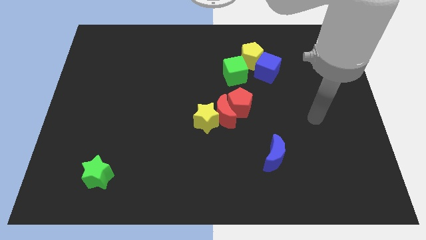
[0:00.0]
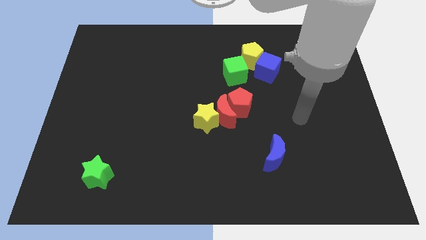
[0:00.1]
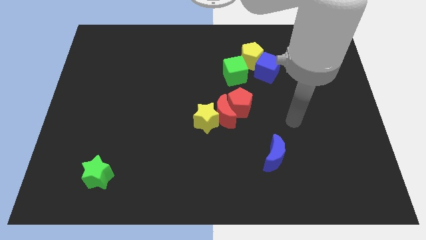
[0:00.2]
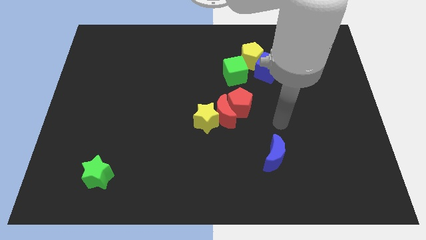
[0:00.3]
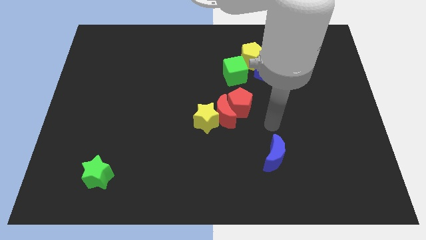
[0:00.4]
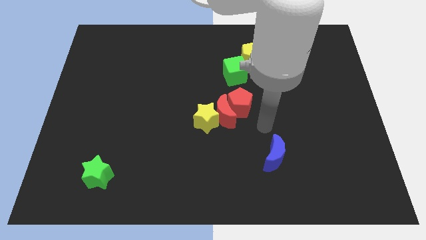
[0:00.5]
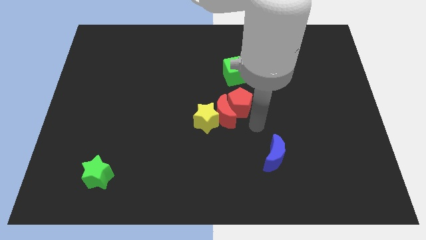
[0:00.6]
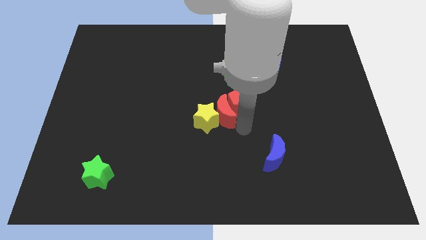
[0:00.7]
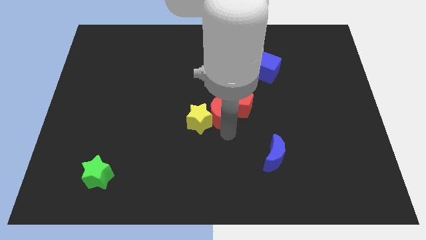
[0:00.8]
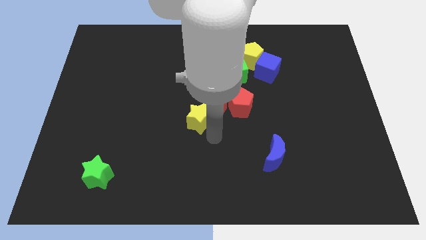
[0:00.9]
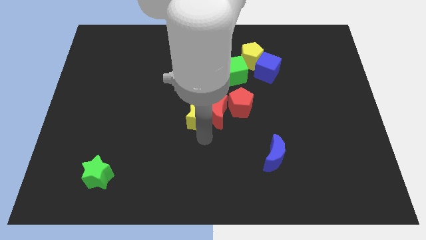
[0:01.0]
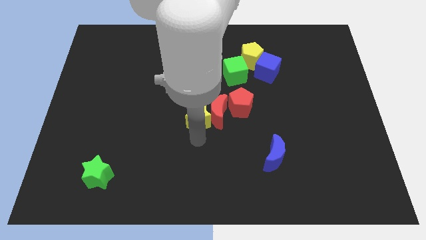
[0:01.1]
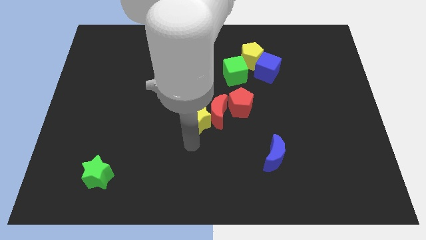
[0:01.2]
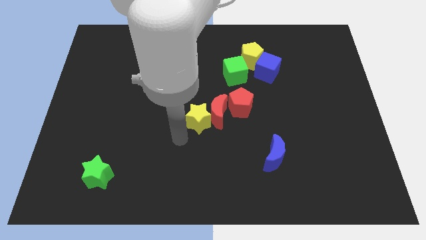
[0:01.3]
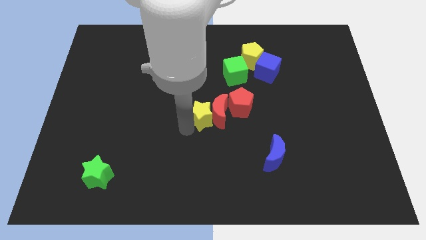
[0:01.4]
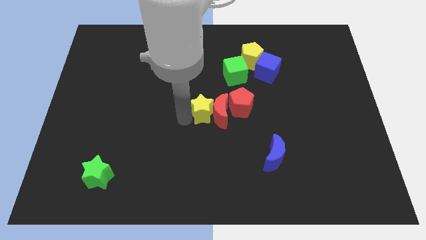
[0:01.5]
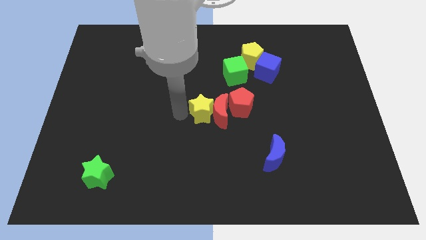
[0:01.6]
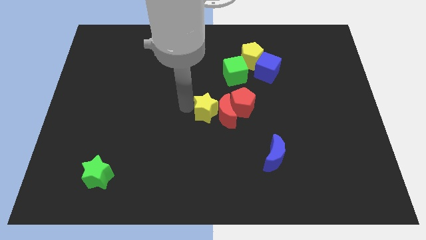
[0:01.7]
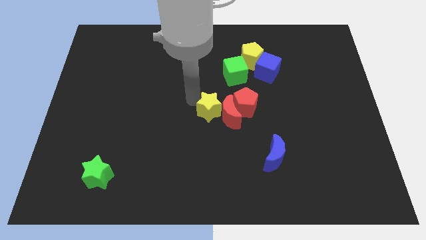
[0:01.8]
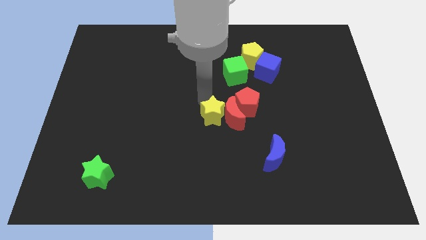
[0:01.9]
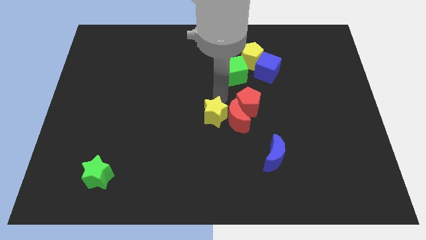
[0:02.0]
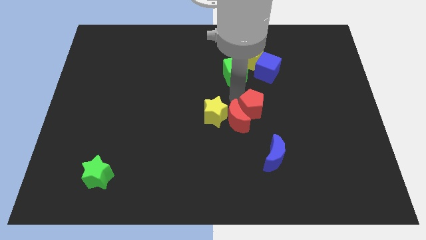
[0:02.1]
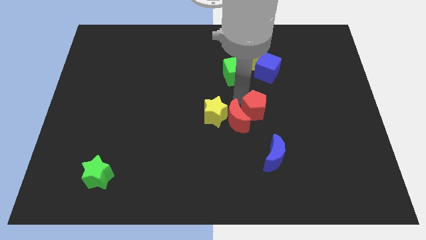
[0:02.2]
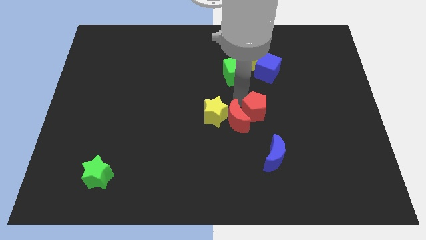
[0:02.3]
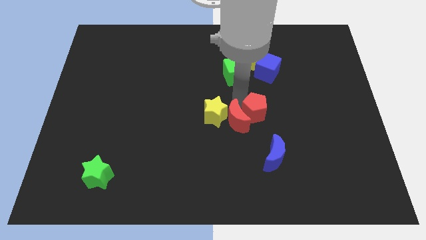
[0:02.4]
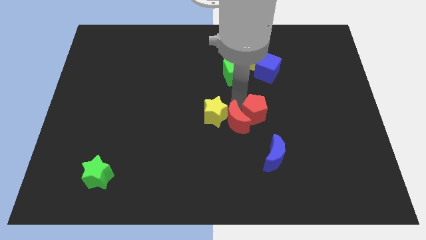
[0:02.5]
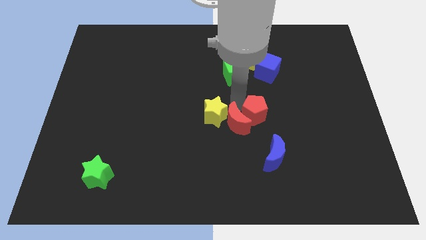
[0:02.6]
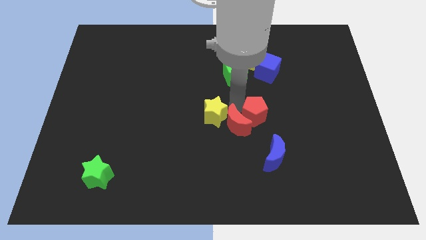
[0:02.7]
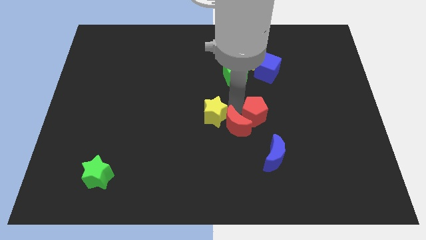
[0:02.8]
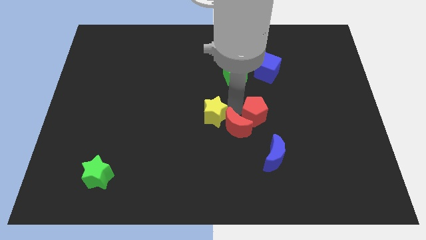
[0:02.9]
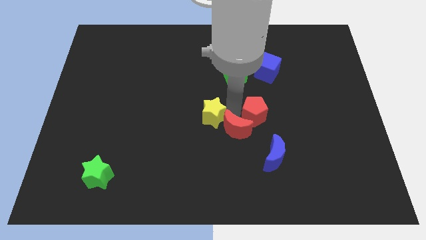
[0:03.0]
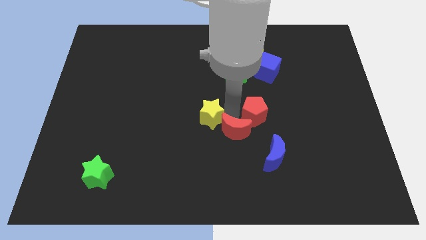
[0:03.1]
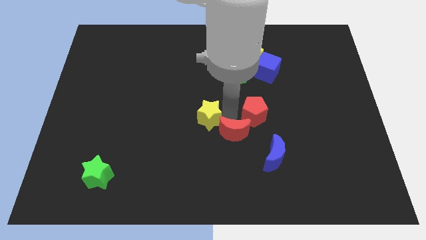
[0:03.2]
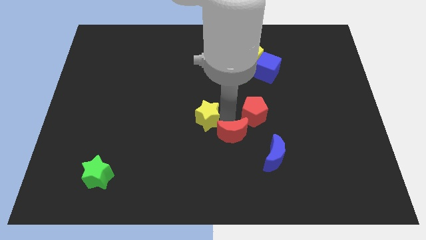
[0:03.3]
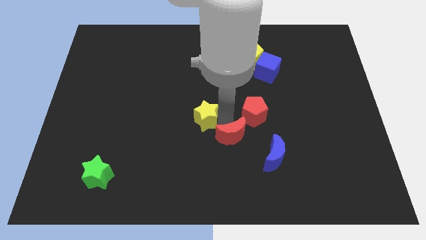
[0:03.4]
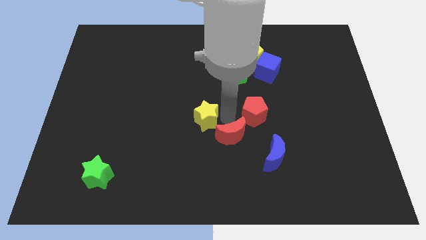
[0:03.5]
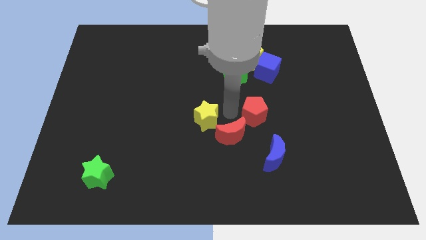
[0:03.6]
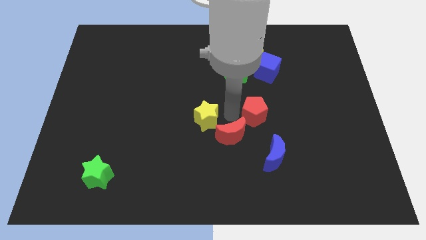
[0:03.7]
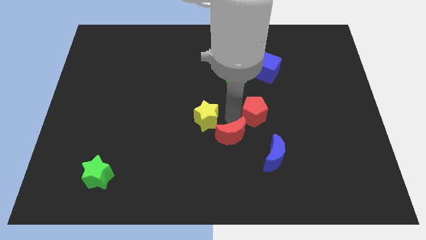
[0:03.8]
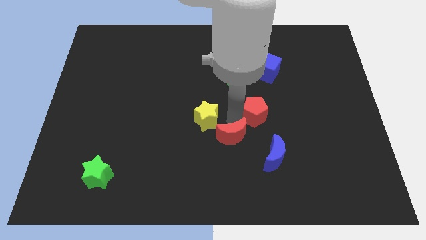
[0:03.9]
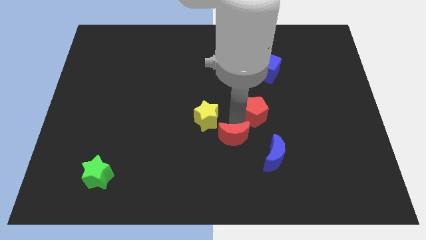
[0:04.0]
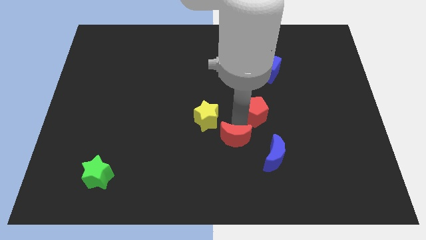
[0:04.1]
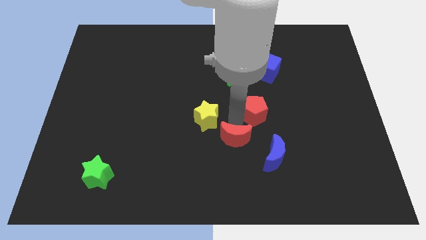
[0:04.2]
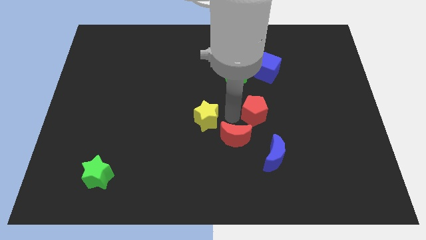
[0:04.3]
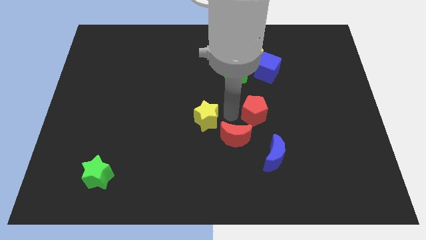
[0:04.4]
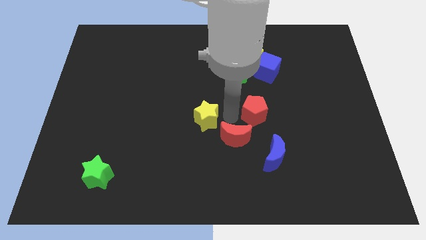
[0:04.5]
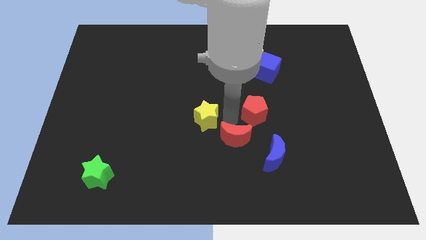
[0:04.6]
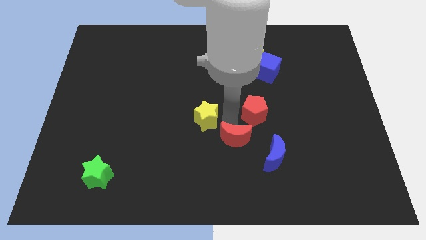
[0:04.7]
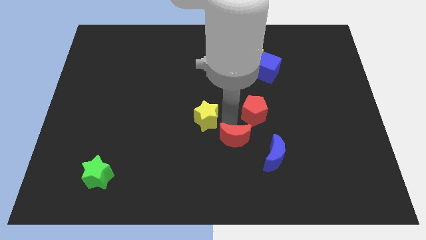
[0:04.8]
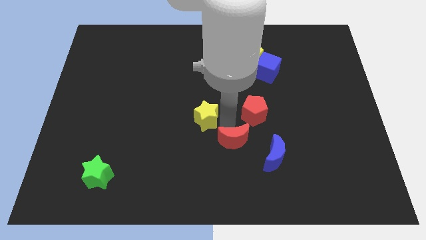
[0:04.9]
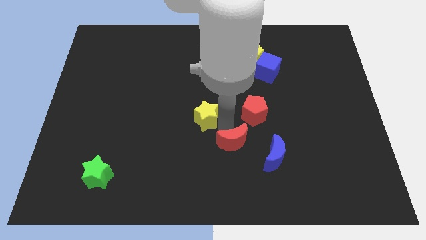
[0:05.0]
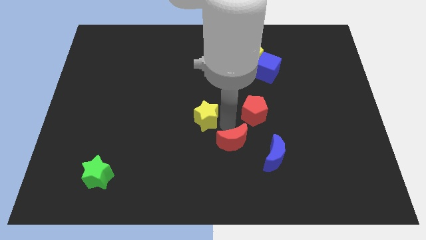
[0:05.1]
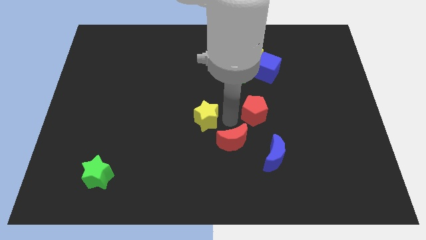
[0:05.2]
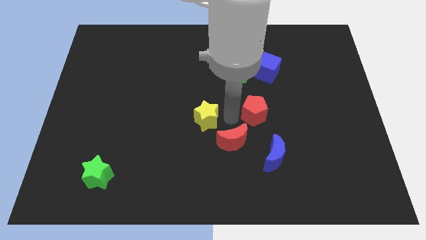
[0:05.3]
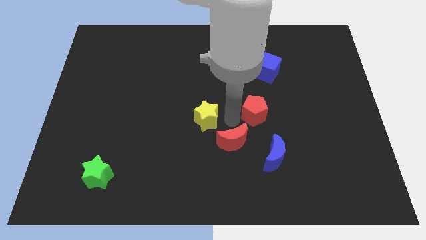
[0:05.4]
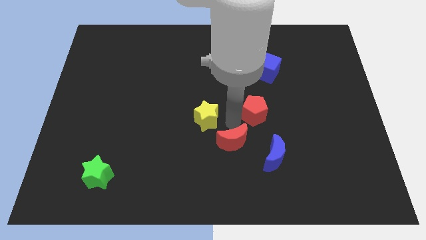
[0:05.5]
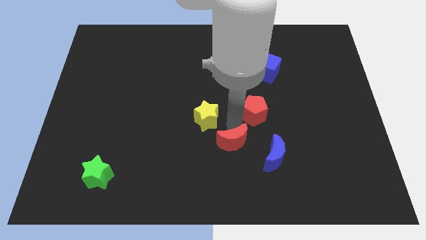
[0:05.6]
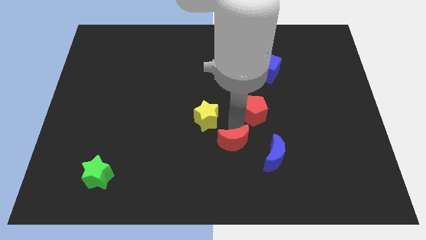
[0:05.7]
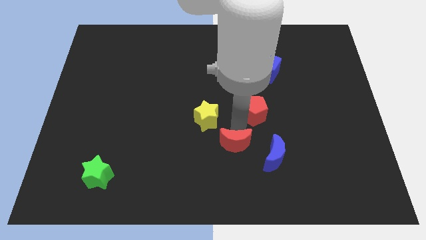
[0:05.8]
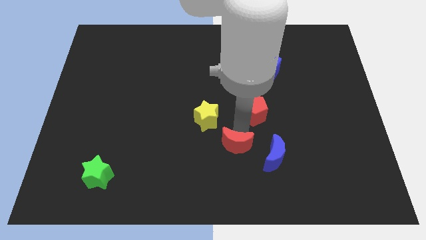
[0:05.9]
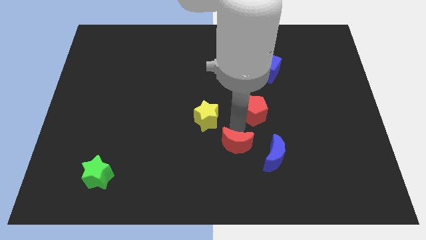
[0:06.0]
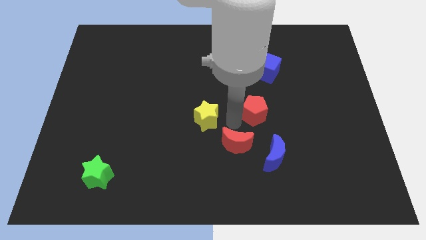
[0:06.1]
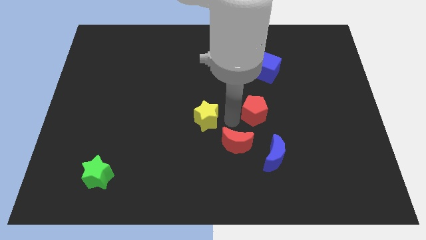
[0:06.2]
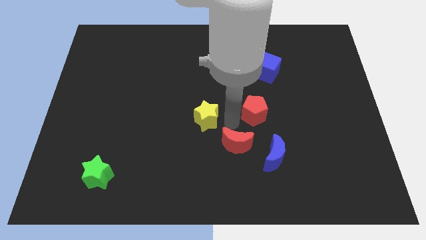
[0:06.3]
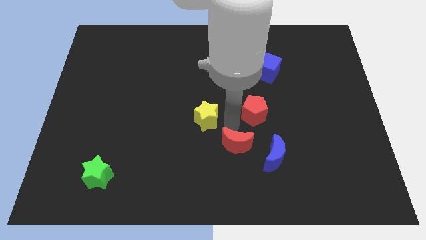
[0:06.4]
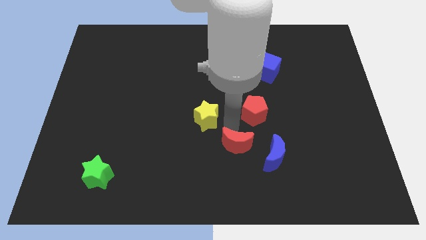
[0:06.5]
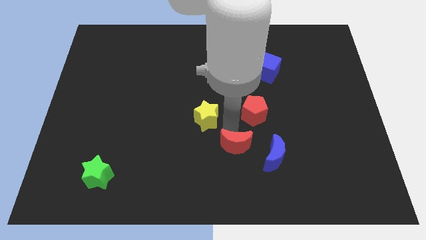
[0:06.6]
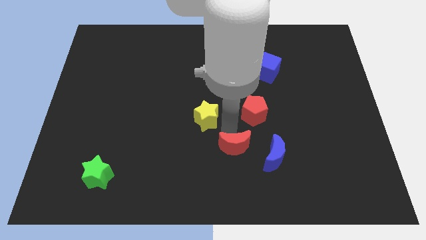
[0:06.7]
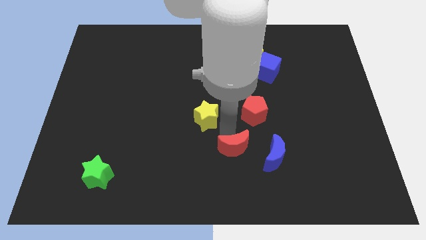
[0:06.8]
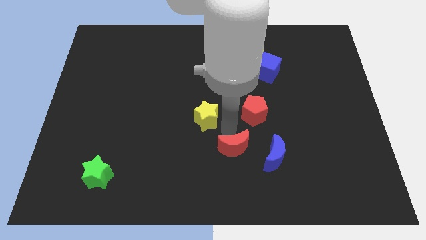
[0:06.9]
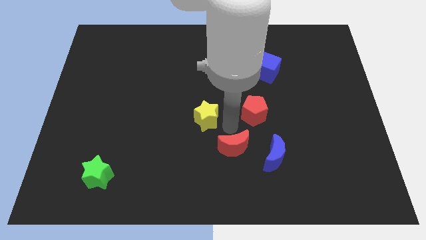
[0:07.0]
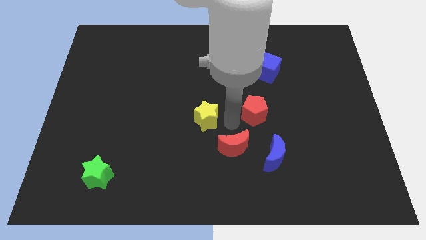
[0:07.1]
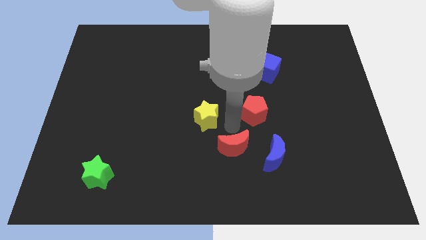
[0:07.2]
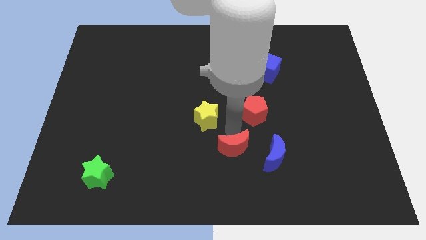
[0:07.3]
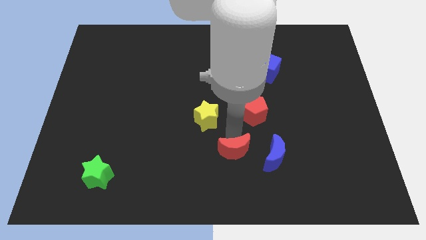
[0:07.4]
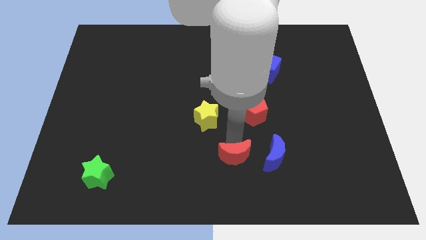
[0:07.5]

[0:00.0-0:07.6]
pull the red moon apart from the yellow star and red pentagon

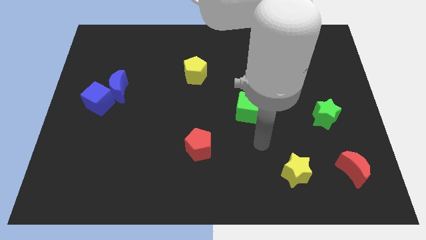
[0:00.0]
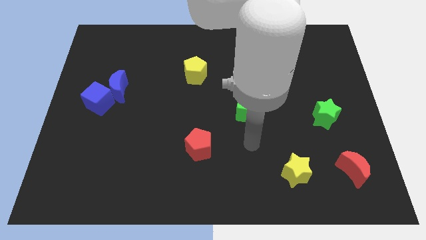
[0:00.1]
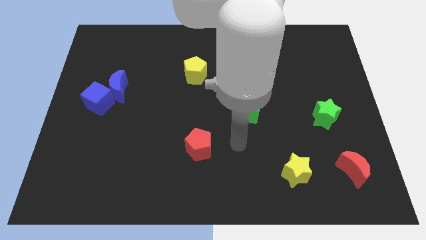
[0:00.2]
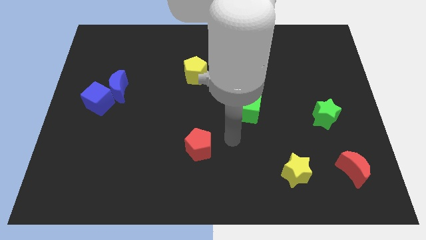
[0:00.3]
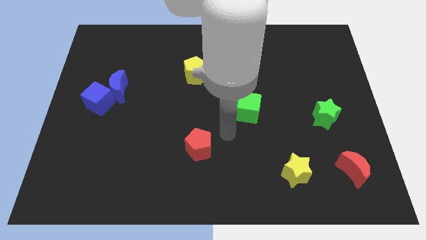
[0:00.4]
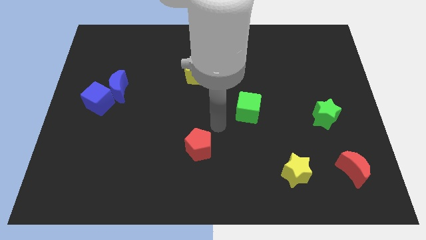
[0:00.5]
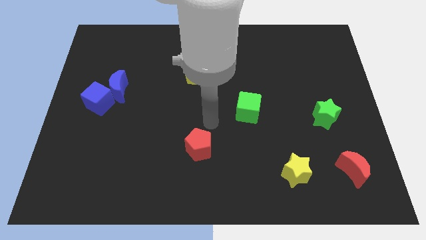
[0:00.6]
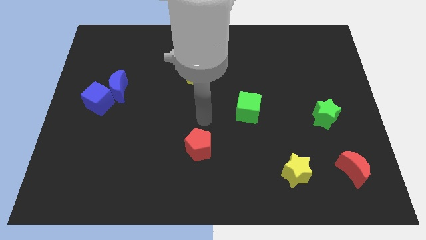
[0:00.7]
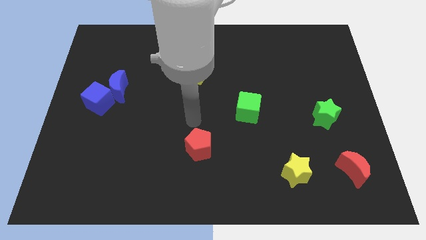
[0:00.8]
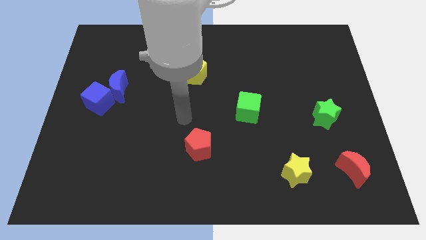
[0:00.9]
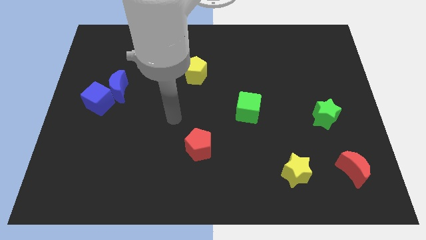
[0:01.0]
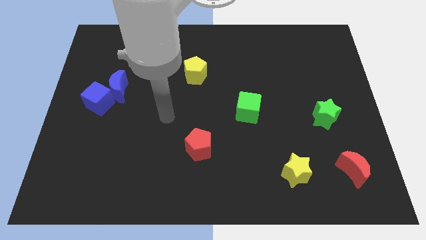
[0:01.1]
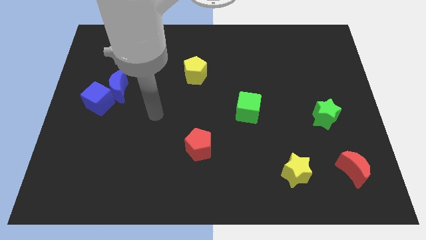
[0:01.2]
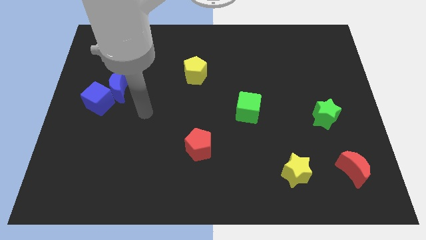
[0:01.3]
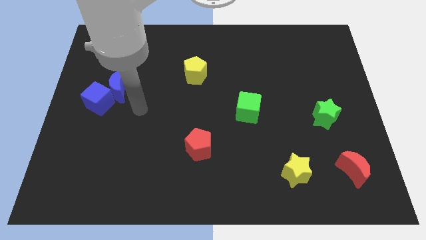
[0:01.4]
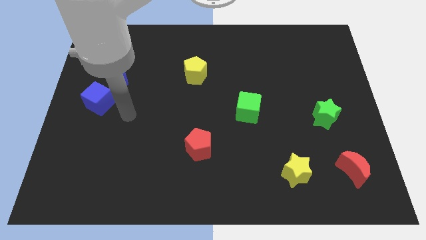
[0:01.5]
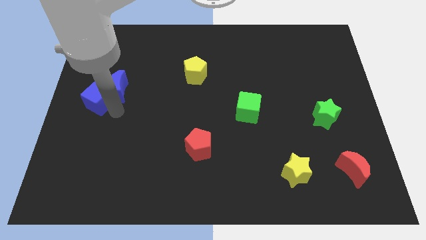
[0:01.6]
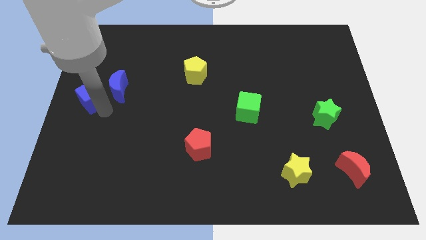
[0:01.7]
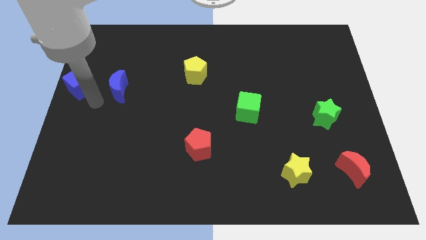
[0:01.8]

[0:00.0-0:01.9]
pull the blue moon apart from the blue cube
